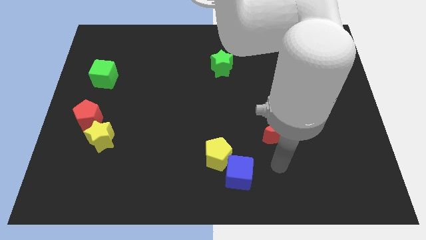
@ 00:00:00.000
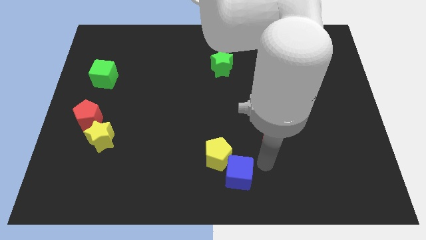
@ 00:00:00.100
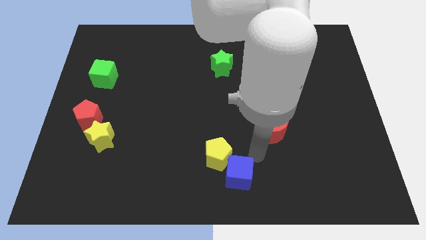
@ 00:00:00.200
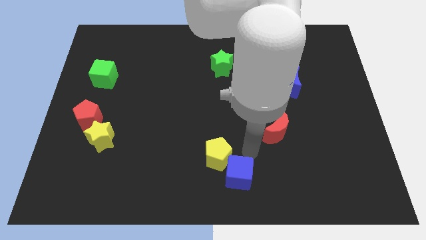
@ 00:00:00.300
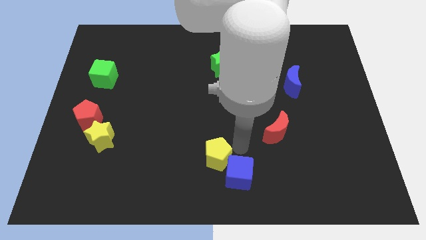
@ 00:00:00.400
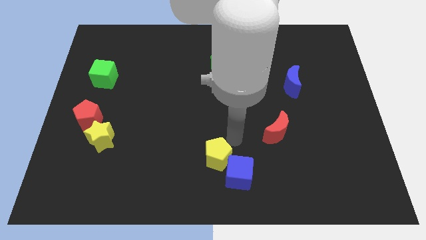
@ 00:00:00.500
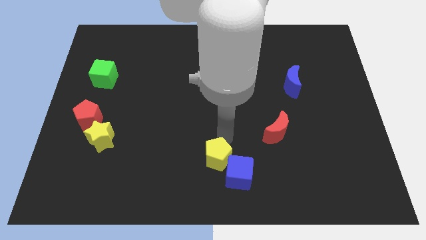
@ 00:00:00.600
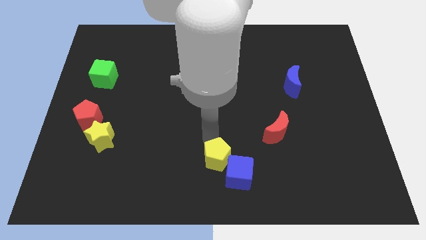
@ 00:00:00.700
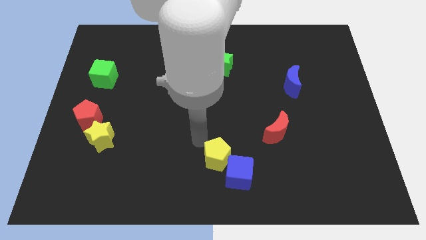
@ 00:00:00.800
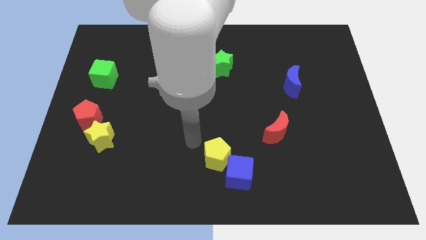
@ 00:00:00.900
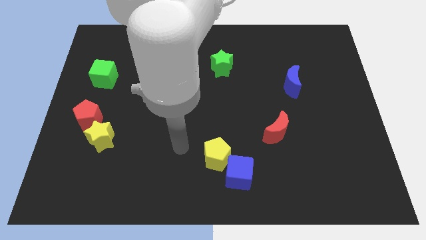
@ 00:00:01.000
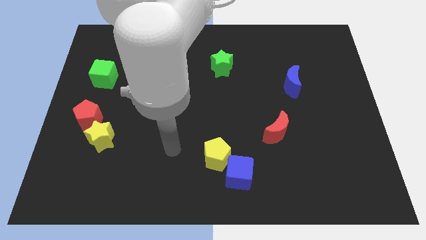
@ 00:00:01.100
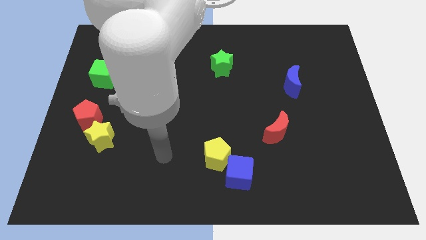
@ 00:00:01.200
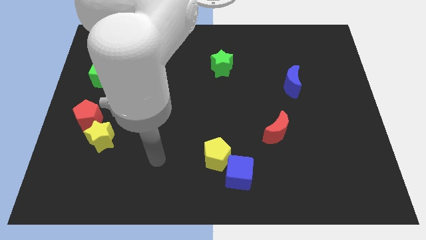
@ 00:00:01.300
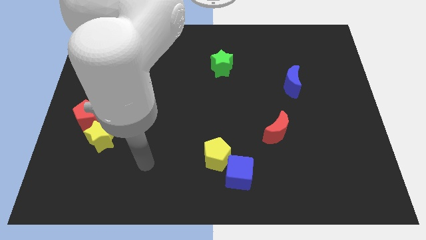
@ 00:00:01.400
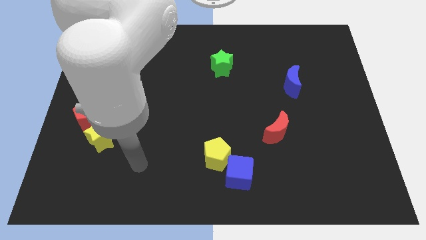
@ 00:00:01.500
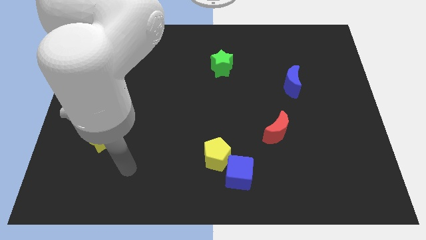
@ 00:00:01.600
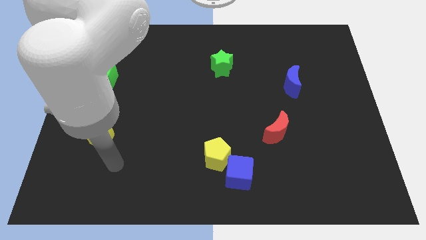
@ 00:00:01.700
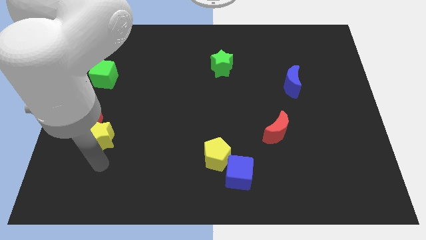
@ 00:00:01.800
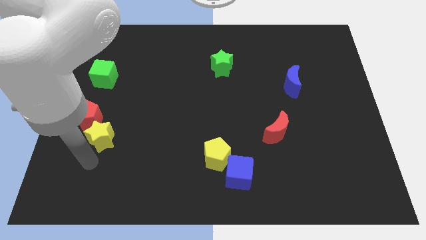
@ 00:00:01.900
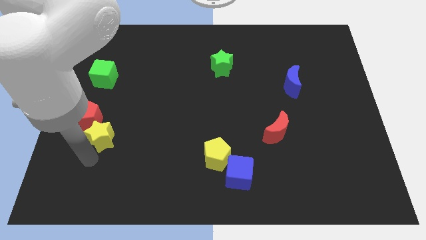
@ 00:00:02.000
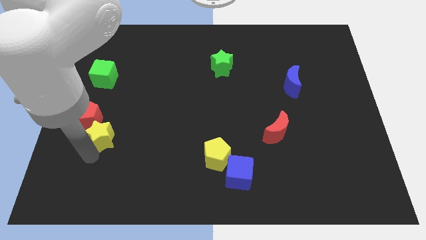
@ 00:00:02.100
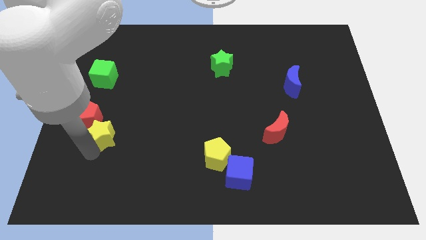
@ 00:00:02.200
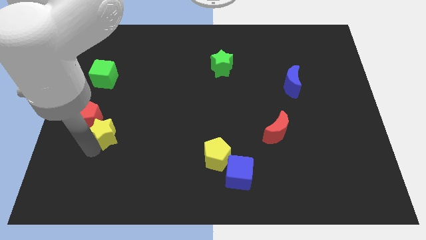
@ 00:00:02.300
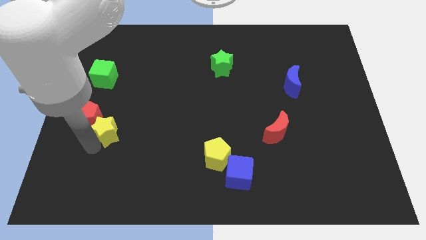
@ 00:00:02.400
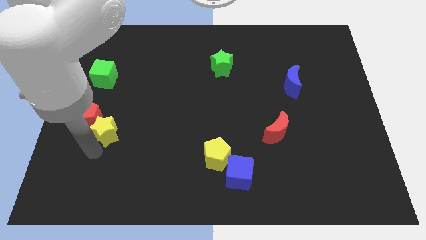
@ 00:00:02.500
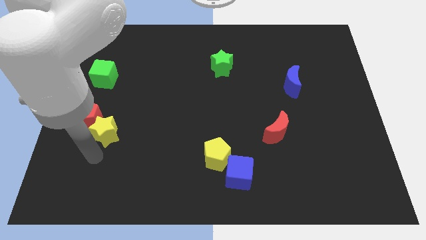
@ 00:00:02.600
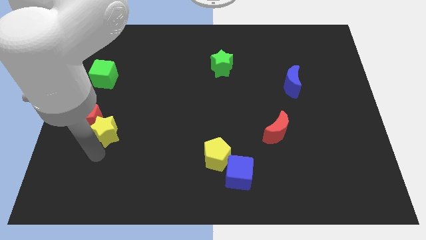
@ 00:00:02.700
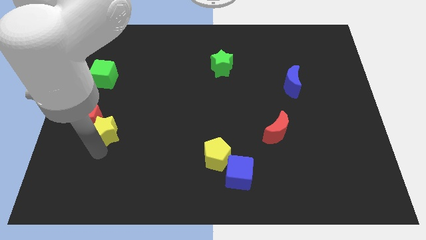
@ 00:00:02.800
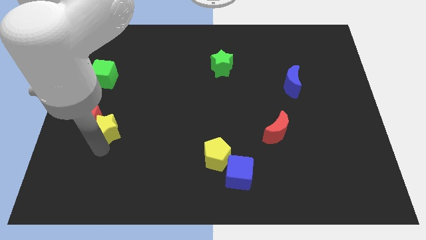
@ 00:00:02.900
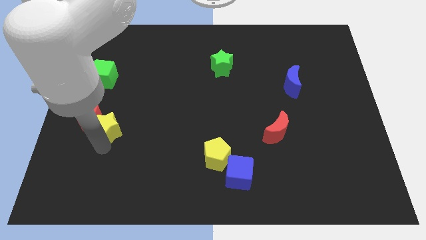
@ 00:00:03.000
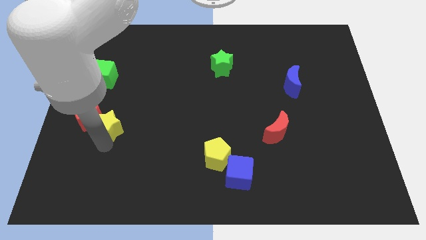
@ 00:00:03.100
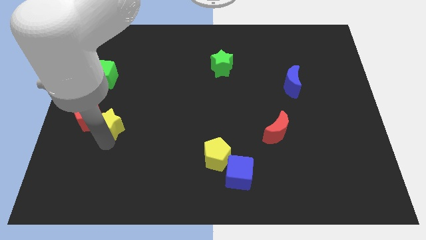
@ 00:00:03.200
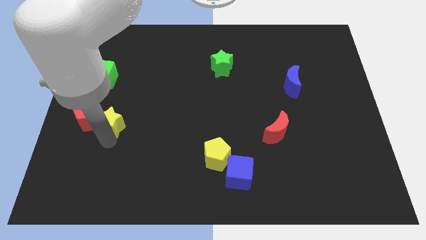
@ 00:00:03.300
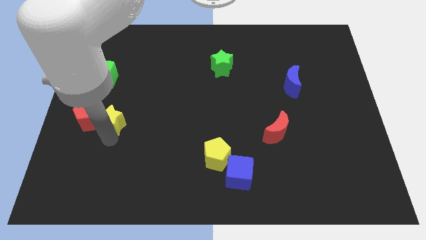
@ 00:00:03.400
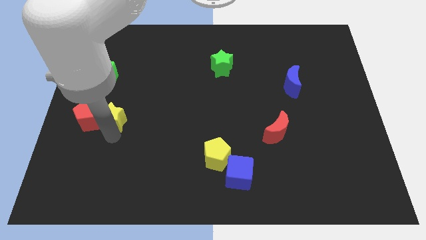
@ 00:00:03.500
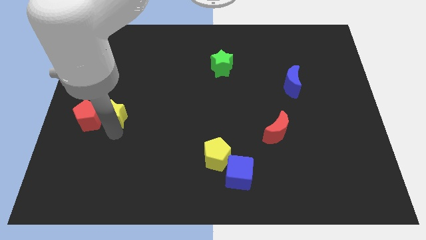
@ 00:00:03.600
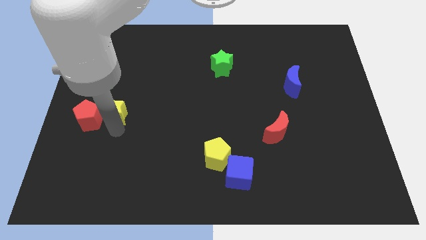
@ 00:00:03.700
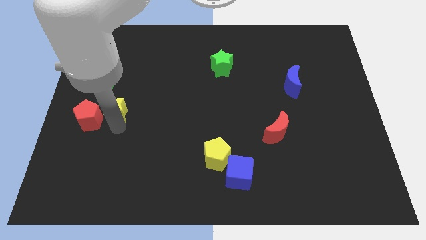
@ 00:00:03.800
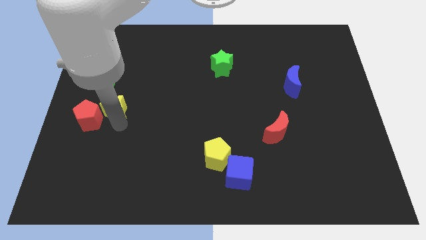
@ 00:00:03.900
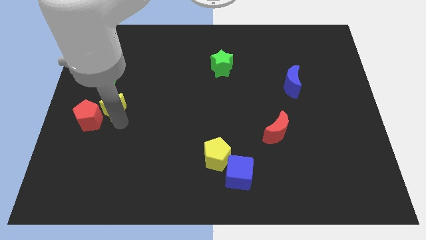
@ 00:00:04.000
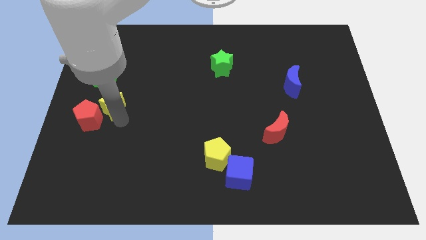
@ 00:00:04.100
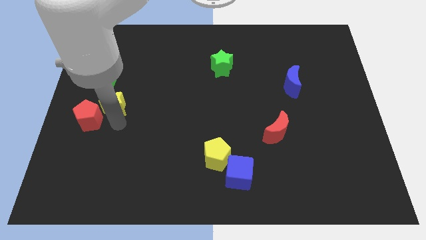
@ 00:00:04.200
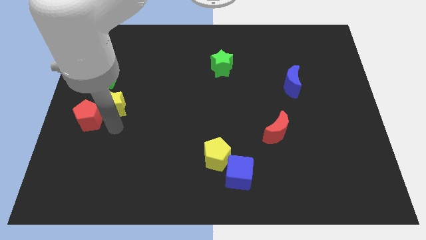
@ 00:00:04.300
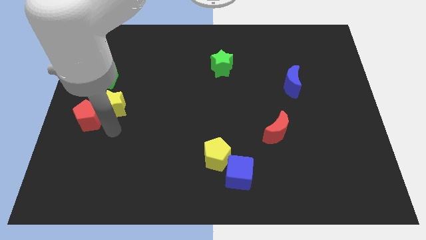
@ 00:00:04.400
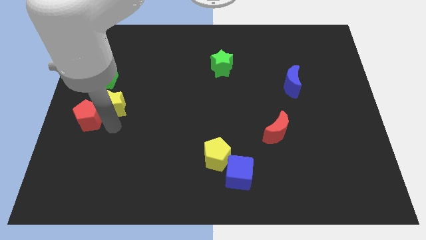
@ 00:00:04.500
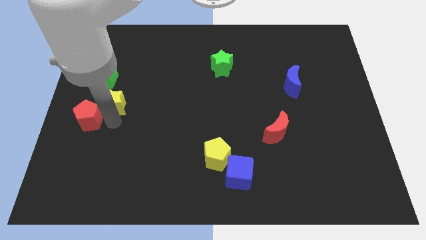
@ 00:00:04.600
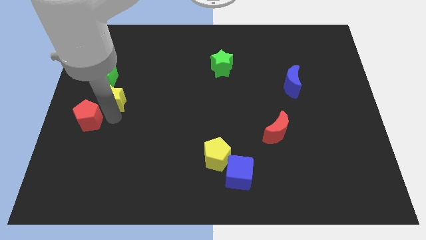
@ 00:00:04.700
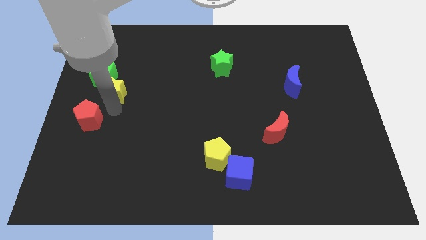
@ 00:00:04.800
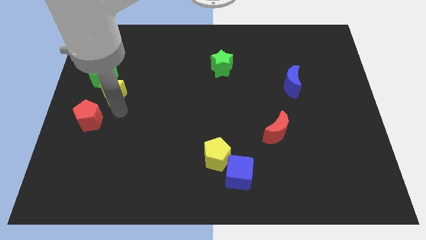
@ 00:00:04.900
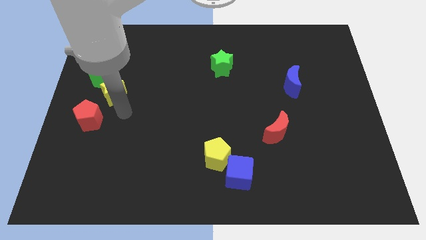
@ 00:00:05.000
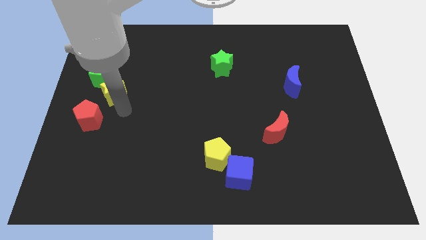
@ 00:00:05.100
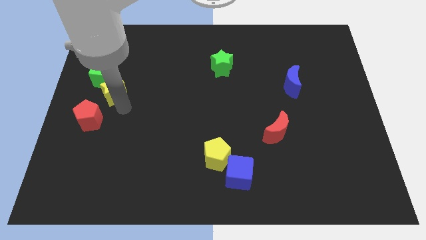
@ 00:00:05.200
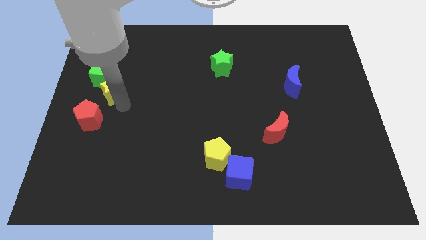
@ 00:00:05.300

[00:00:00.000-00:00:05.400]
move the yellow star next to the green cube
